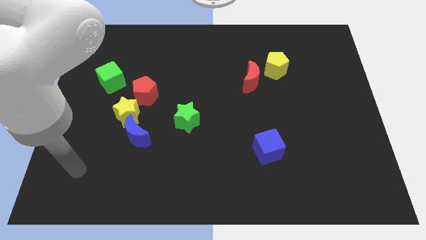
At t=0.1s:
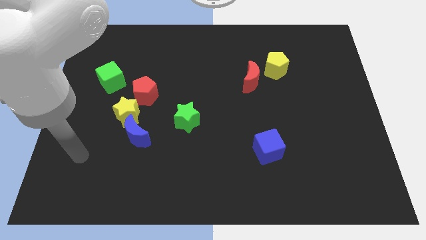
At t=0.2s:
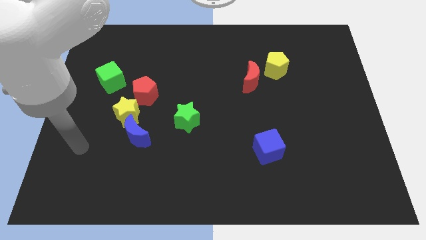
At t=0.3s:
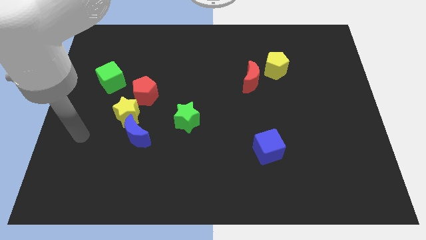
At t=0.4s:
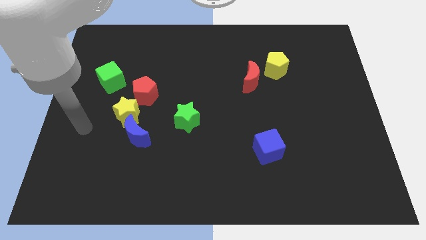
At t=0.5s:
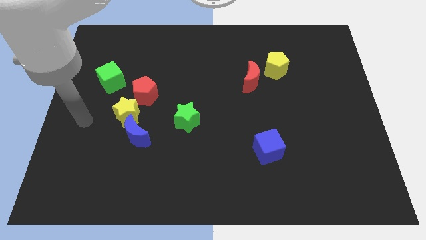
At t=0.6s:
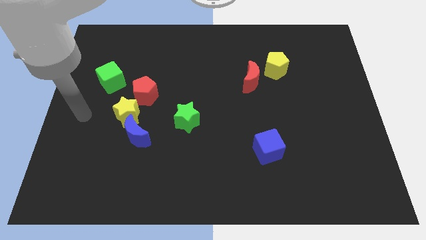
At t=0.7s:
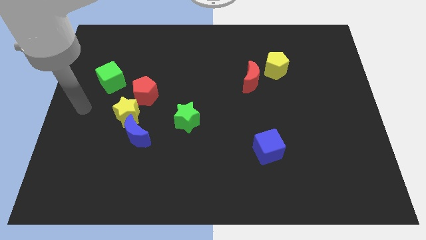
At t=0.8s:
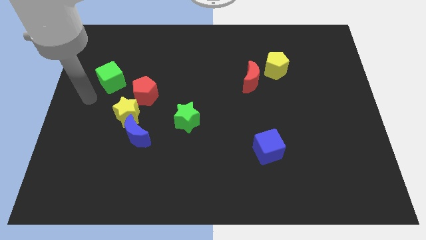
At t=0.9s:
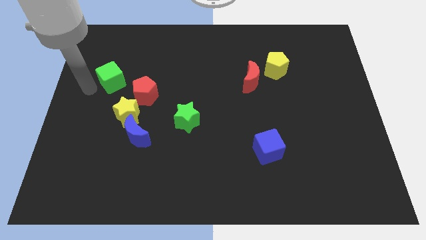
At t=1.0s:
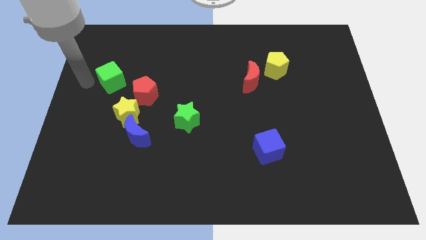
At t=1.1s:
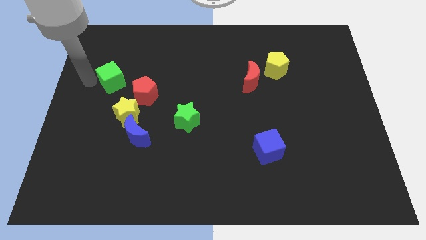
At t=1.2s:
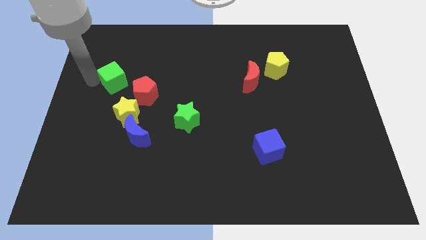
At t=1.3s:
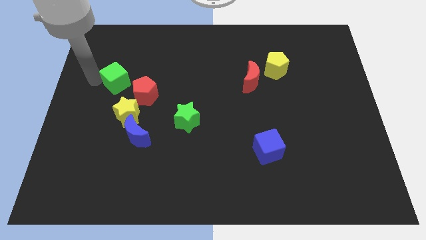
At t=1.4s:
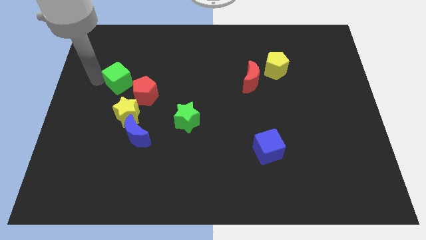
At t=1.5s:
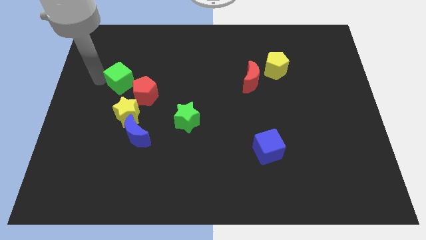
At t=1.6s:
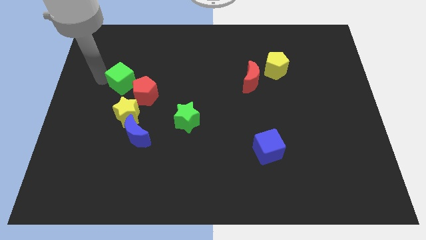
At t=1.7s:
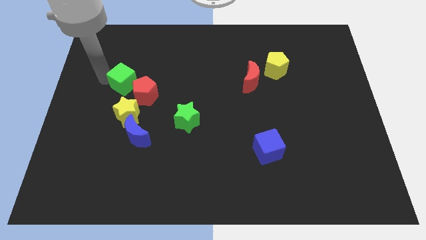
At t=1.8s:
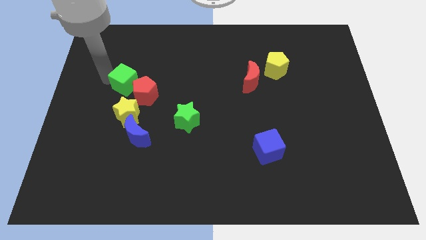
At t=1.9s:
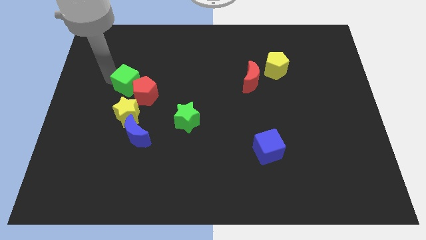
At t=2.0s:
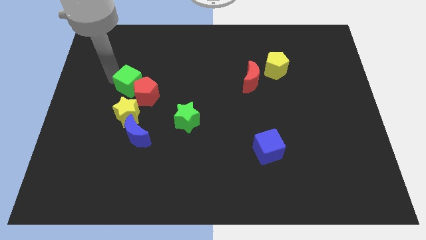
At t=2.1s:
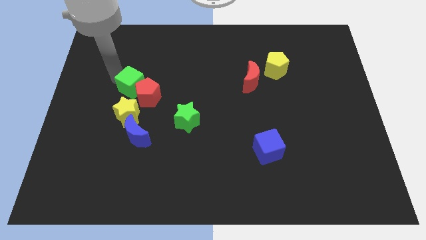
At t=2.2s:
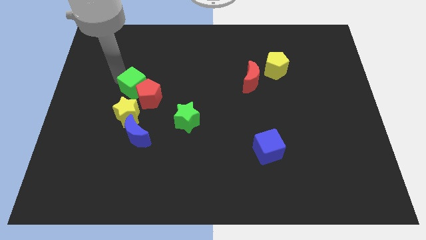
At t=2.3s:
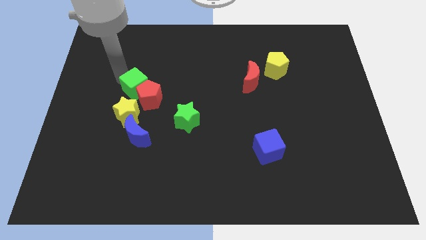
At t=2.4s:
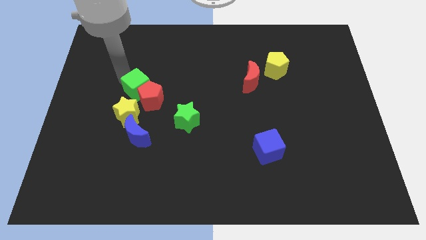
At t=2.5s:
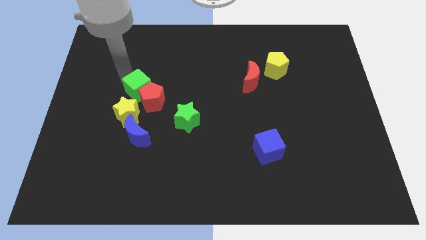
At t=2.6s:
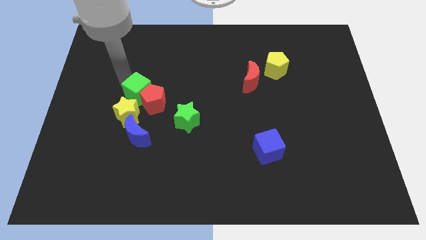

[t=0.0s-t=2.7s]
slide the green cube slightly downwards and to the right diagonally

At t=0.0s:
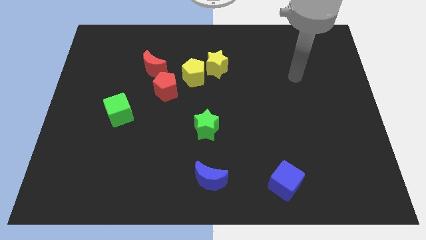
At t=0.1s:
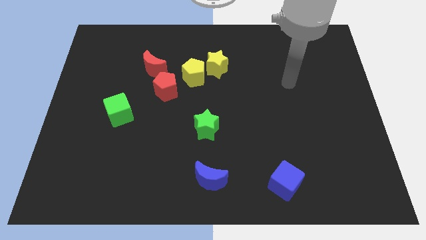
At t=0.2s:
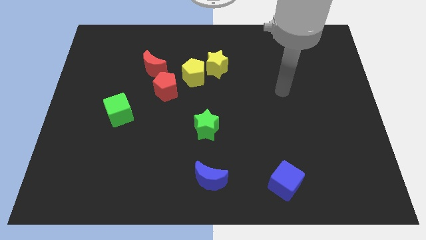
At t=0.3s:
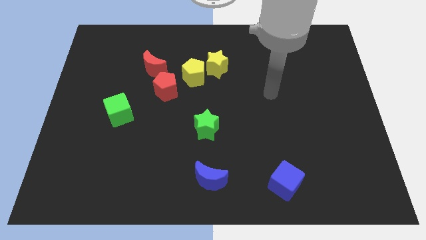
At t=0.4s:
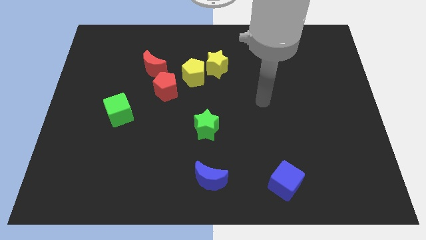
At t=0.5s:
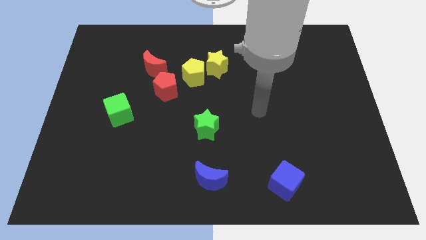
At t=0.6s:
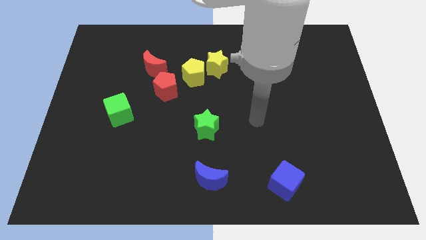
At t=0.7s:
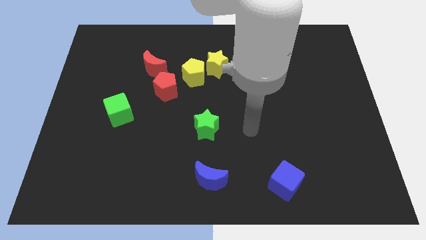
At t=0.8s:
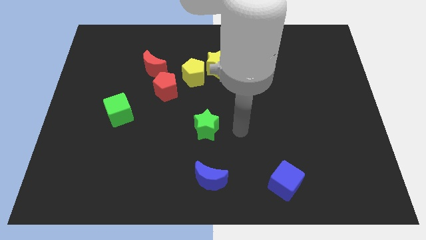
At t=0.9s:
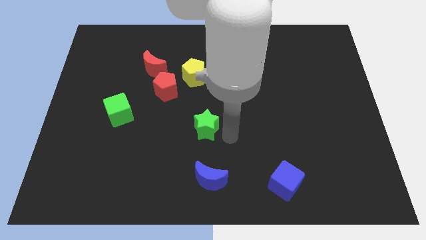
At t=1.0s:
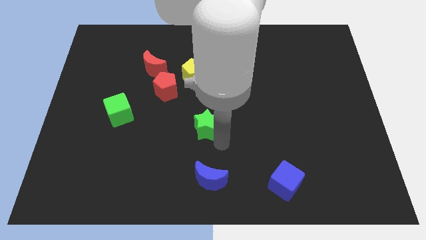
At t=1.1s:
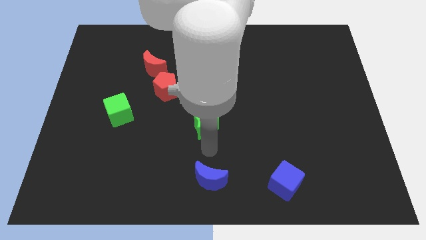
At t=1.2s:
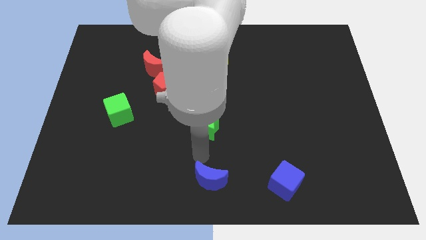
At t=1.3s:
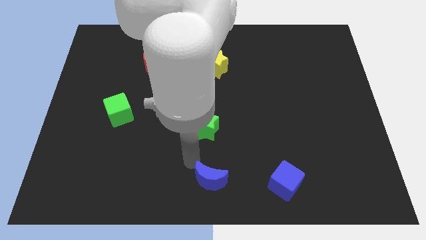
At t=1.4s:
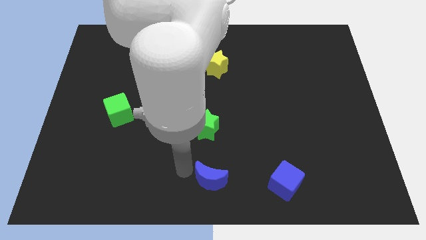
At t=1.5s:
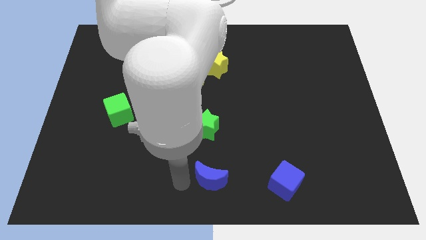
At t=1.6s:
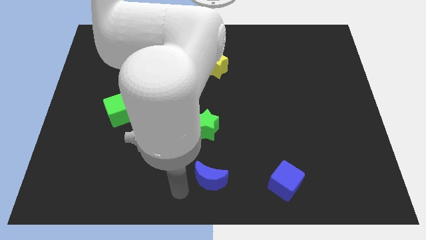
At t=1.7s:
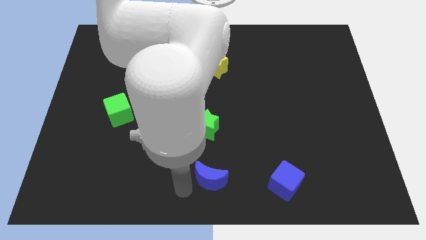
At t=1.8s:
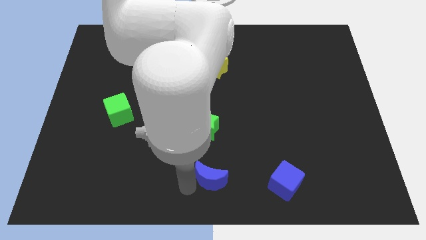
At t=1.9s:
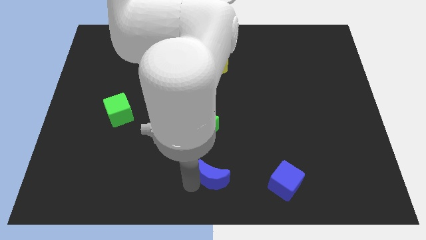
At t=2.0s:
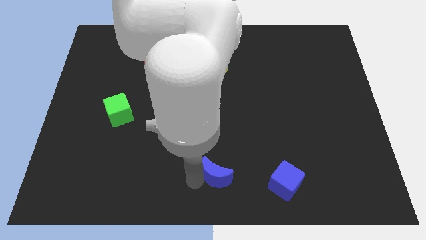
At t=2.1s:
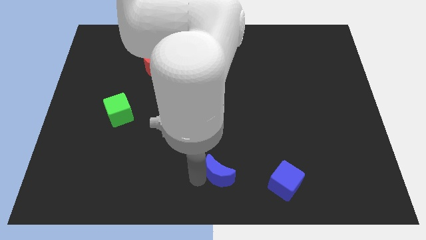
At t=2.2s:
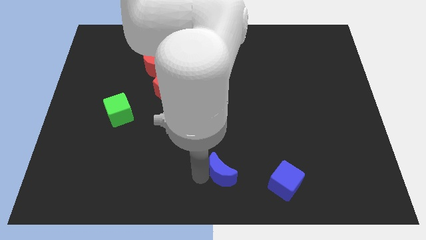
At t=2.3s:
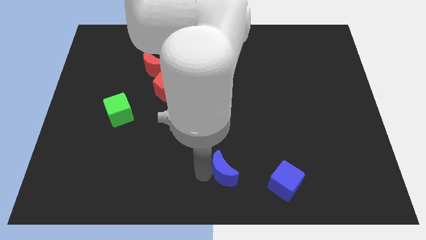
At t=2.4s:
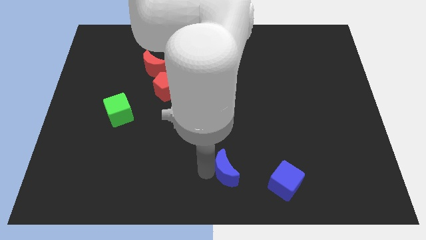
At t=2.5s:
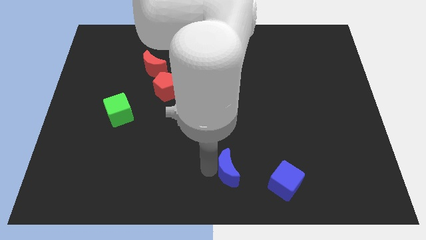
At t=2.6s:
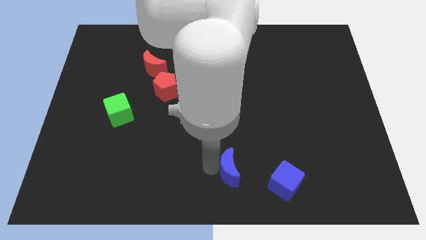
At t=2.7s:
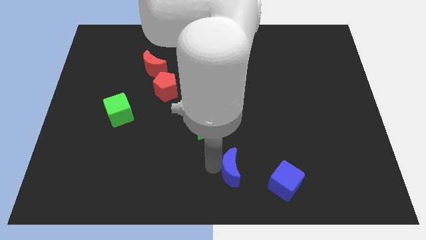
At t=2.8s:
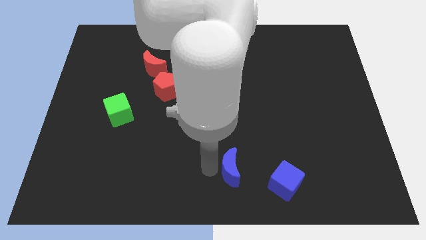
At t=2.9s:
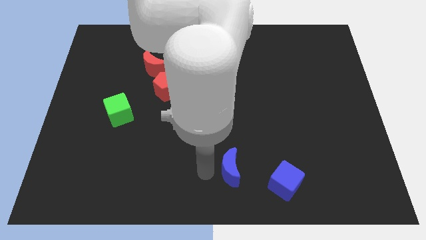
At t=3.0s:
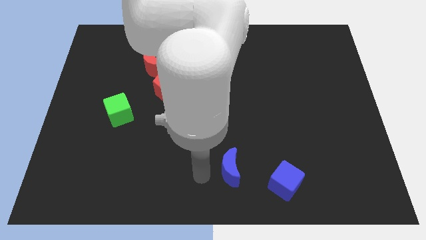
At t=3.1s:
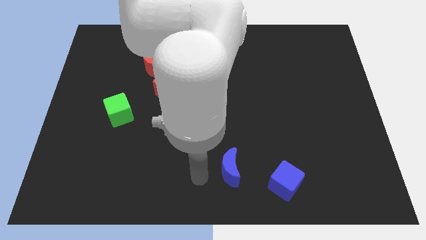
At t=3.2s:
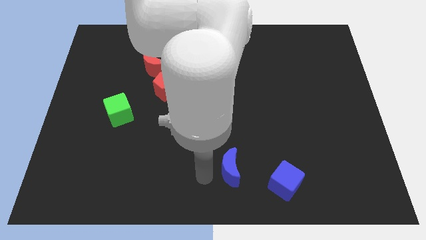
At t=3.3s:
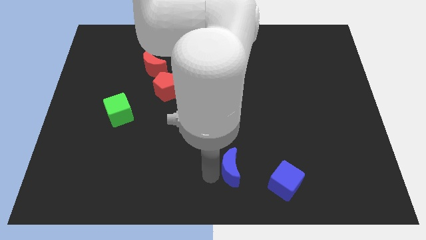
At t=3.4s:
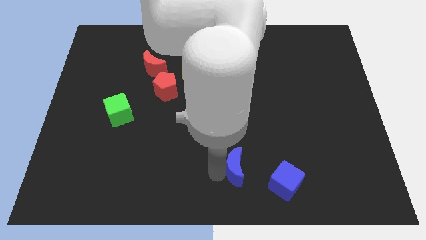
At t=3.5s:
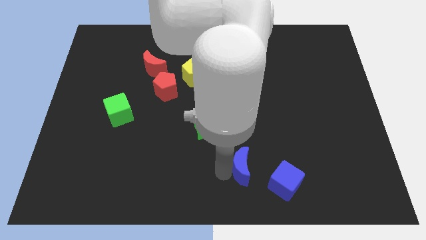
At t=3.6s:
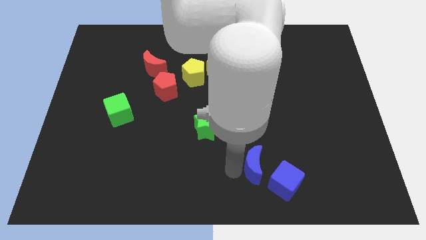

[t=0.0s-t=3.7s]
move the blue moon right a little

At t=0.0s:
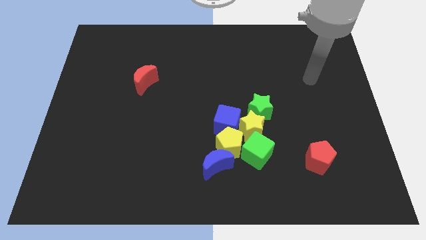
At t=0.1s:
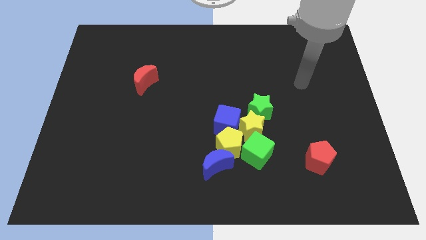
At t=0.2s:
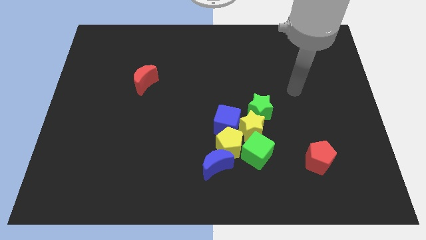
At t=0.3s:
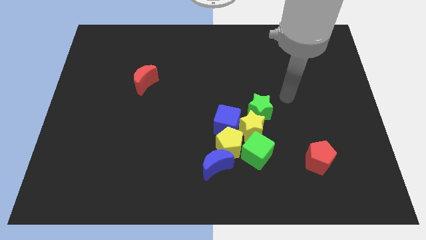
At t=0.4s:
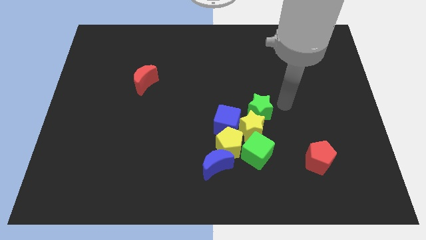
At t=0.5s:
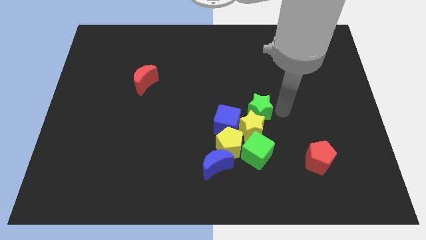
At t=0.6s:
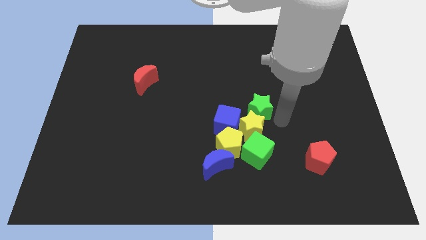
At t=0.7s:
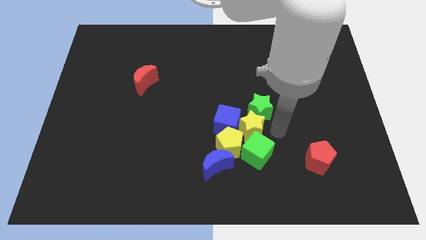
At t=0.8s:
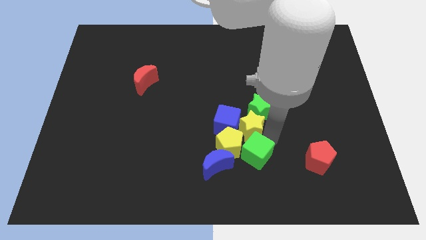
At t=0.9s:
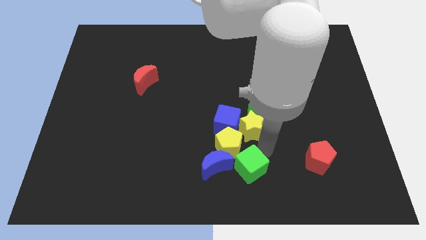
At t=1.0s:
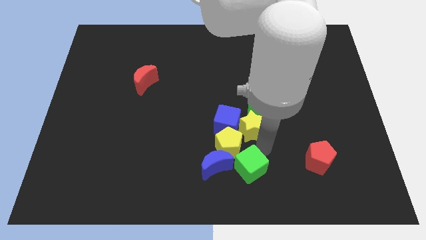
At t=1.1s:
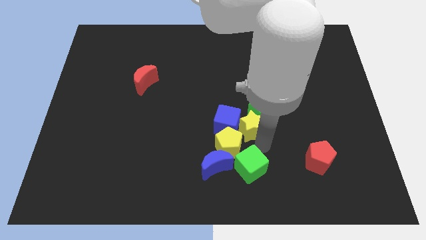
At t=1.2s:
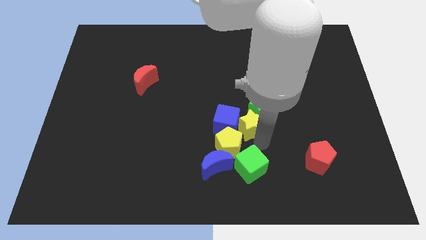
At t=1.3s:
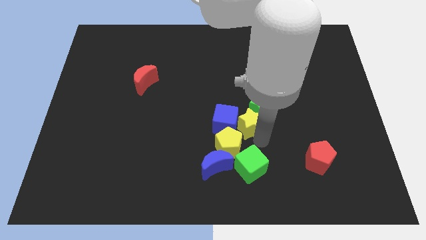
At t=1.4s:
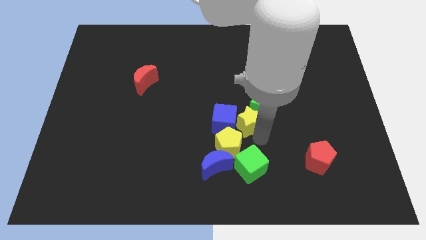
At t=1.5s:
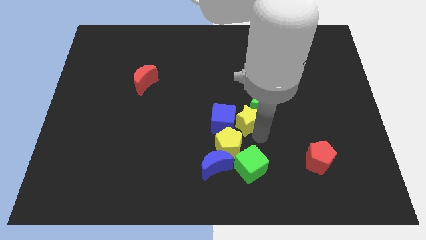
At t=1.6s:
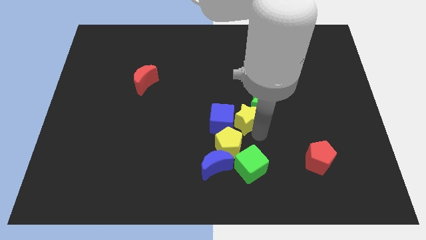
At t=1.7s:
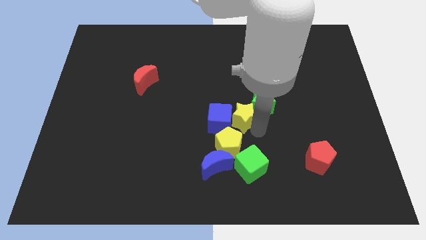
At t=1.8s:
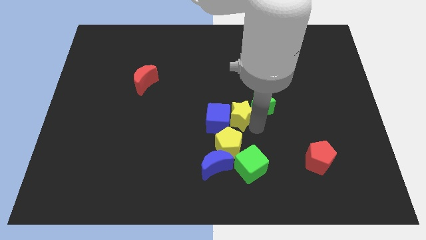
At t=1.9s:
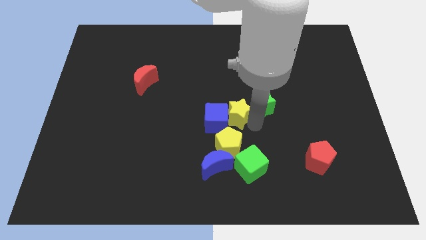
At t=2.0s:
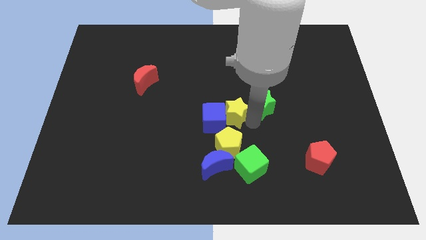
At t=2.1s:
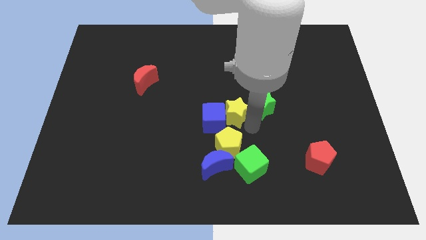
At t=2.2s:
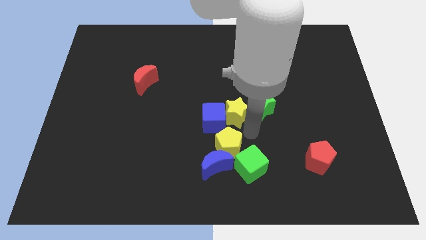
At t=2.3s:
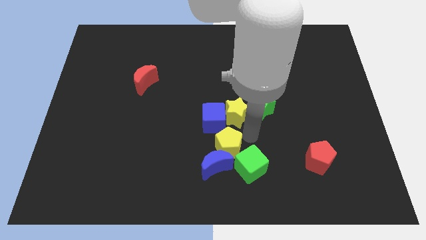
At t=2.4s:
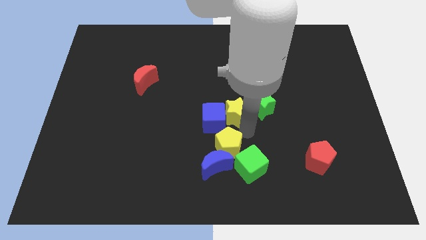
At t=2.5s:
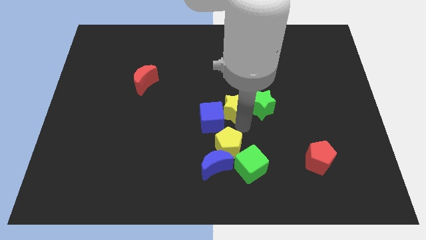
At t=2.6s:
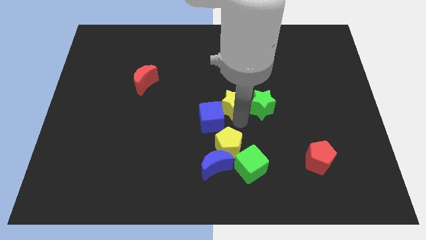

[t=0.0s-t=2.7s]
slightly slide the yellow star upwards and then left
